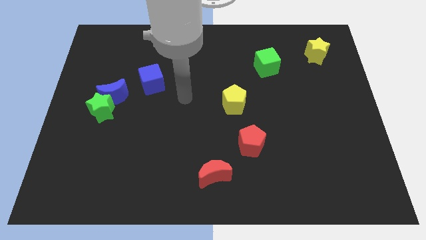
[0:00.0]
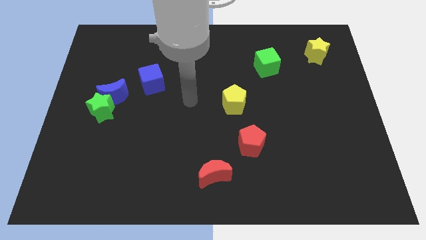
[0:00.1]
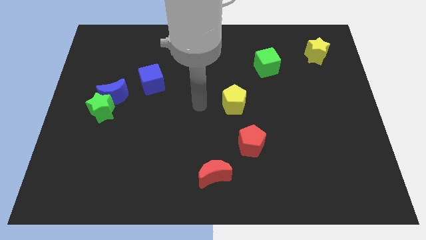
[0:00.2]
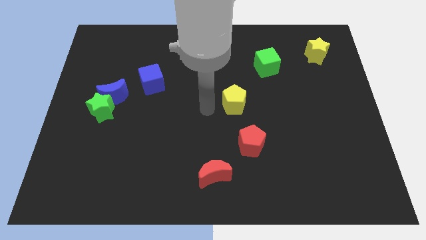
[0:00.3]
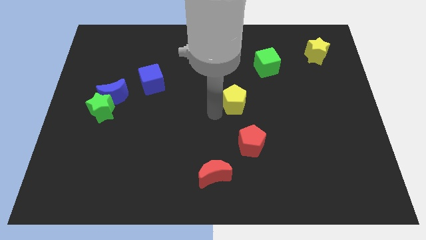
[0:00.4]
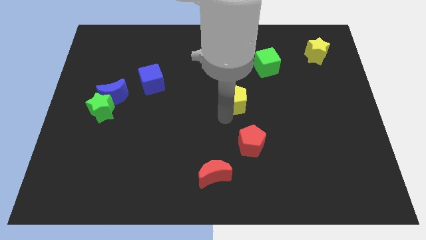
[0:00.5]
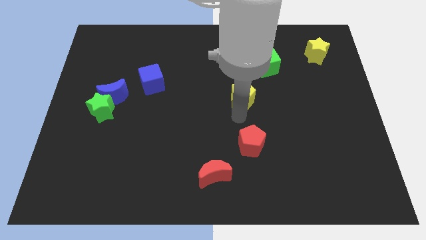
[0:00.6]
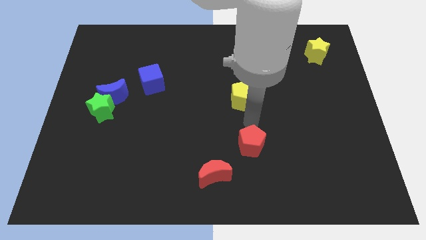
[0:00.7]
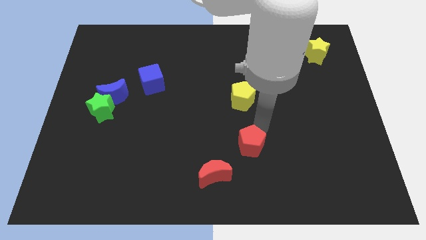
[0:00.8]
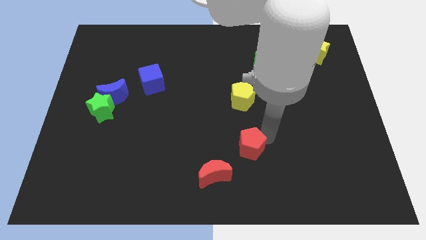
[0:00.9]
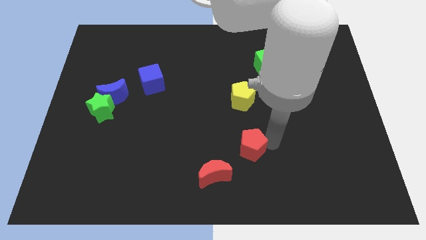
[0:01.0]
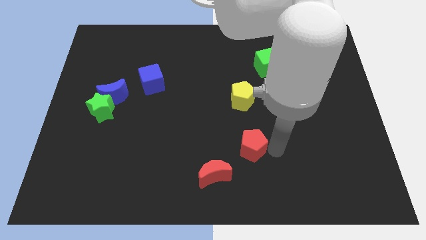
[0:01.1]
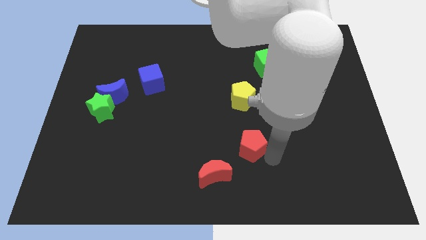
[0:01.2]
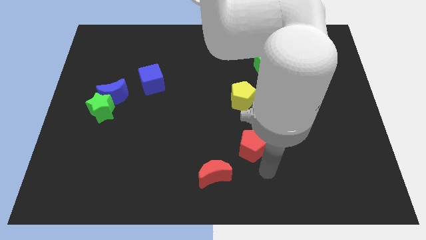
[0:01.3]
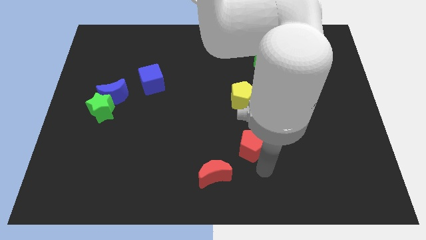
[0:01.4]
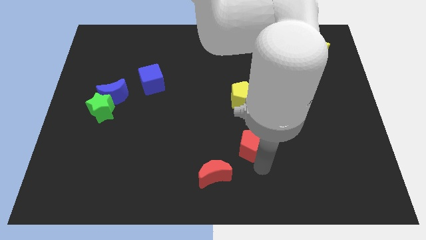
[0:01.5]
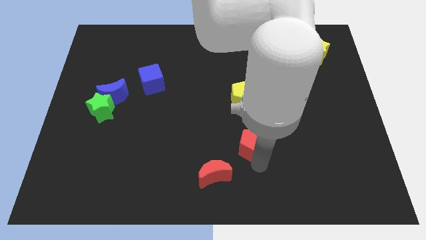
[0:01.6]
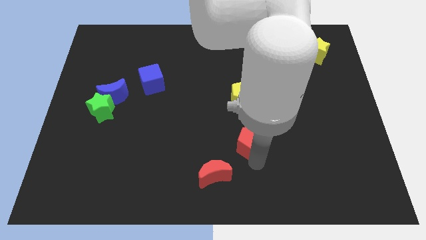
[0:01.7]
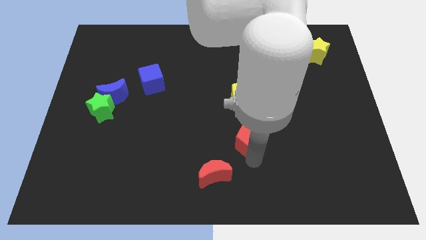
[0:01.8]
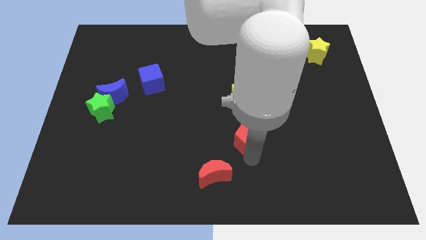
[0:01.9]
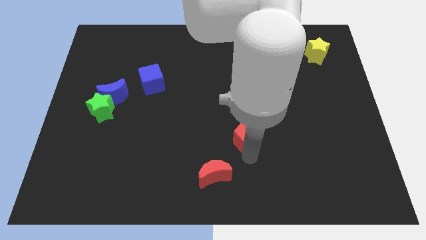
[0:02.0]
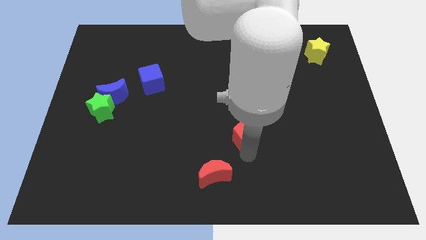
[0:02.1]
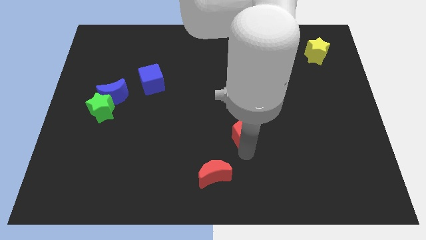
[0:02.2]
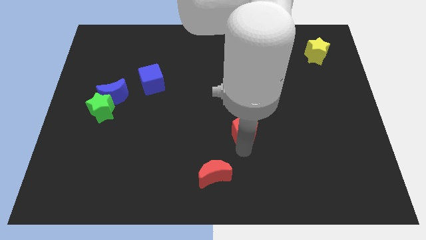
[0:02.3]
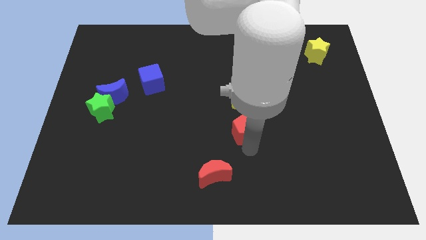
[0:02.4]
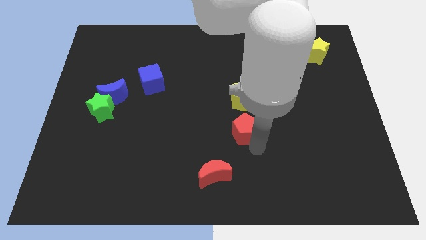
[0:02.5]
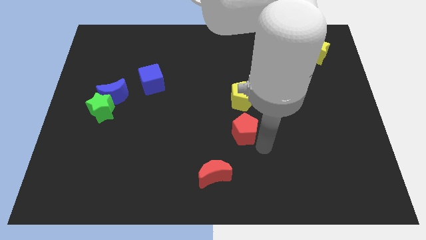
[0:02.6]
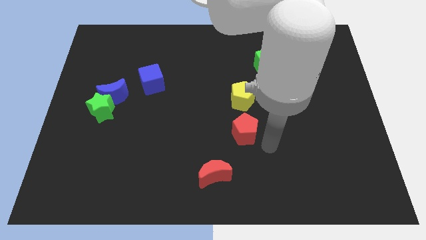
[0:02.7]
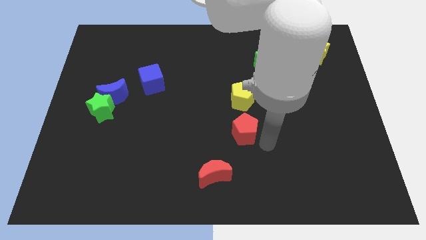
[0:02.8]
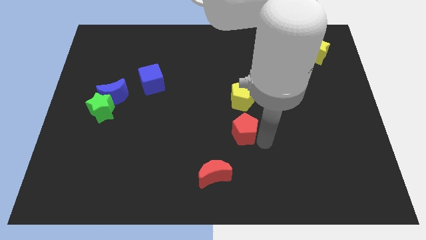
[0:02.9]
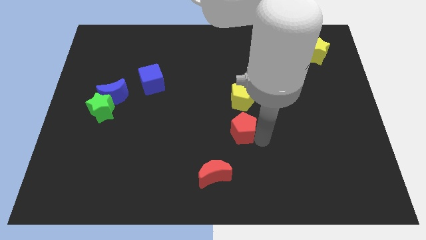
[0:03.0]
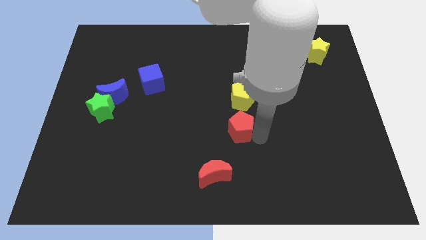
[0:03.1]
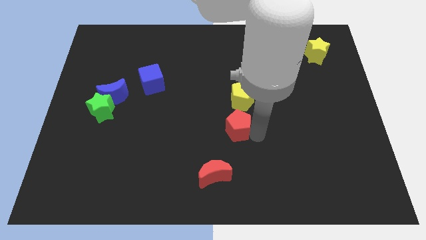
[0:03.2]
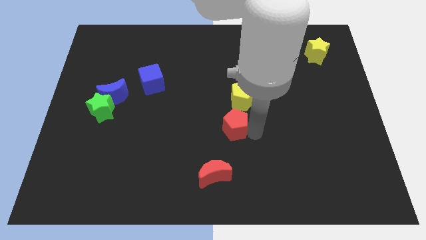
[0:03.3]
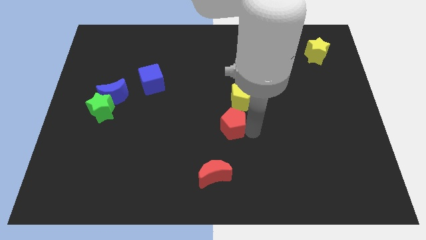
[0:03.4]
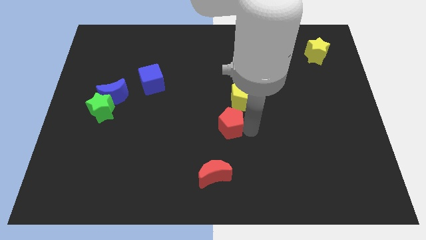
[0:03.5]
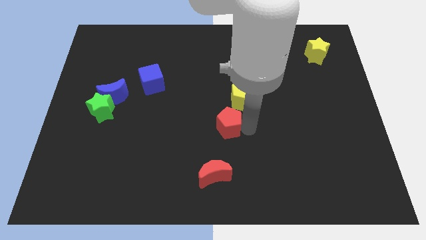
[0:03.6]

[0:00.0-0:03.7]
slightly slide the red pentagon upwards and to the left

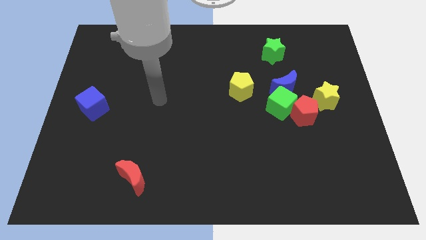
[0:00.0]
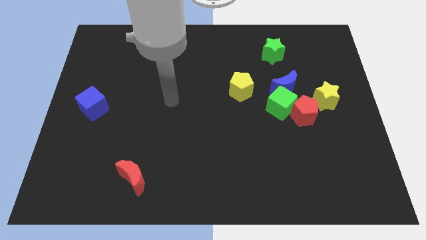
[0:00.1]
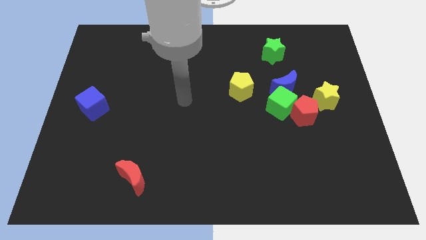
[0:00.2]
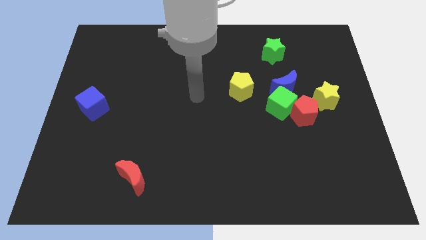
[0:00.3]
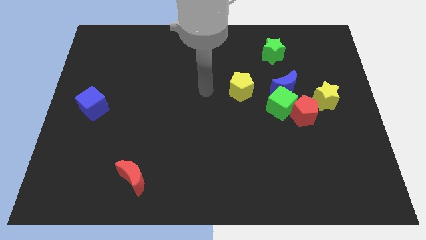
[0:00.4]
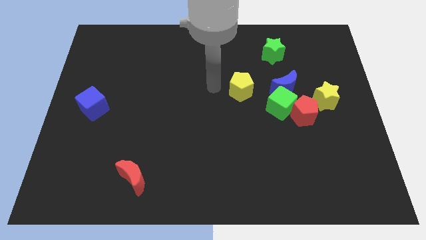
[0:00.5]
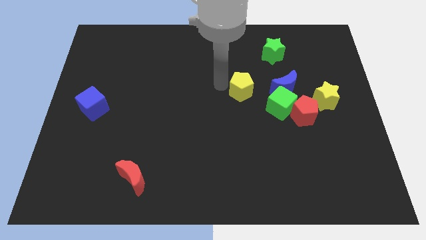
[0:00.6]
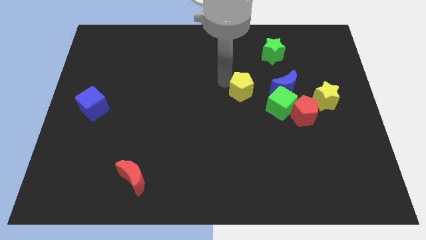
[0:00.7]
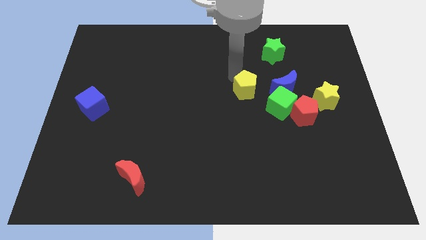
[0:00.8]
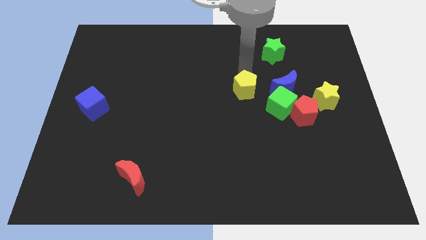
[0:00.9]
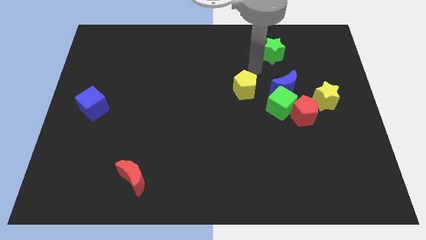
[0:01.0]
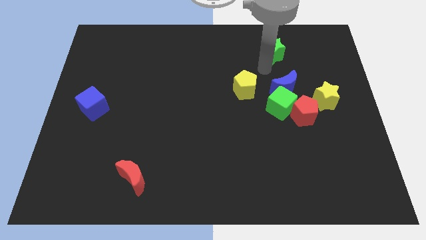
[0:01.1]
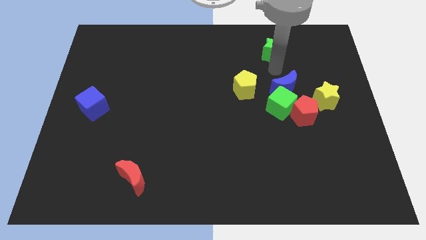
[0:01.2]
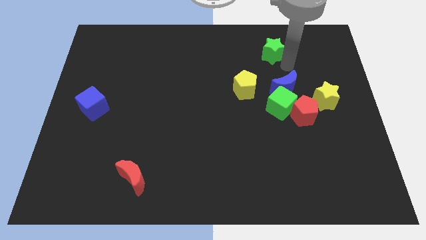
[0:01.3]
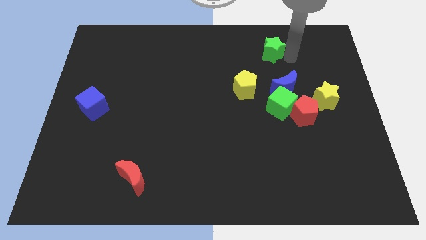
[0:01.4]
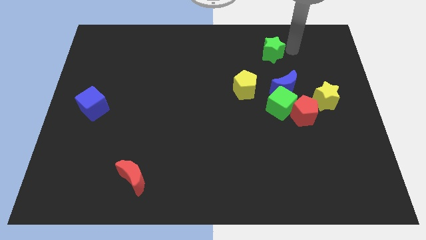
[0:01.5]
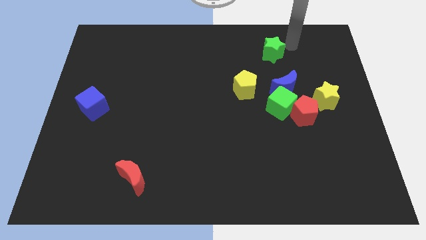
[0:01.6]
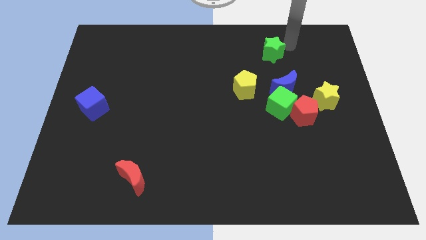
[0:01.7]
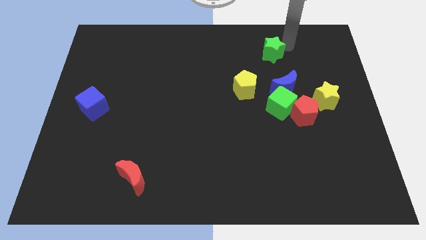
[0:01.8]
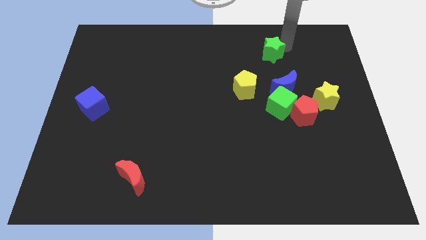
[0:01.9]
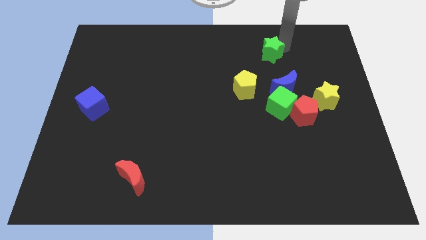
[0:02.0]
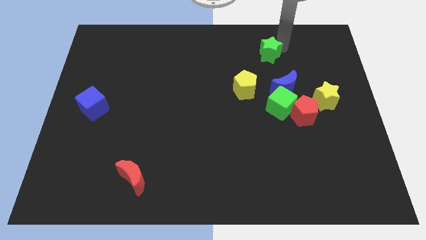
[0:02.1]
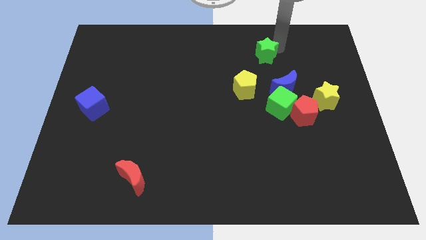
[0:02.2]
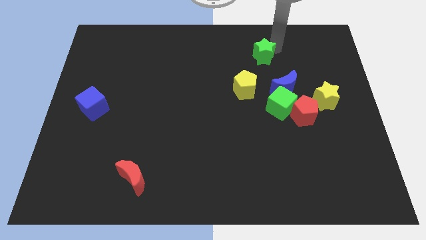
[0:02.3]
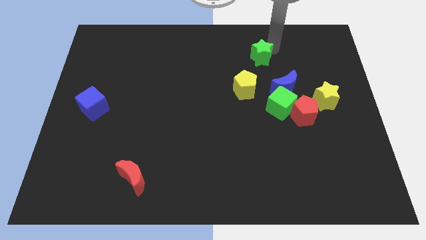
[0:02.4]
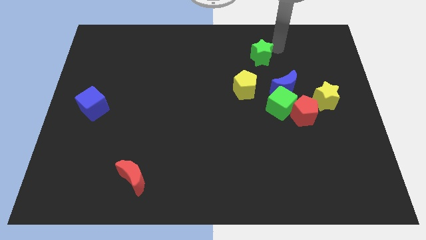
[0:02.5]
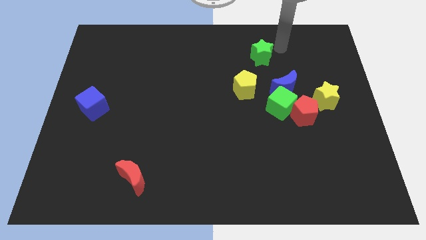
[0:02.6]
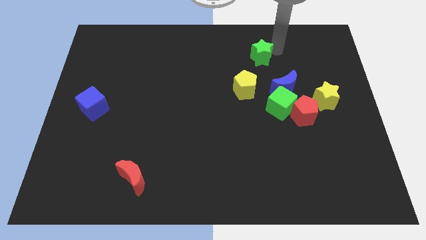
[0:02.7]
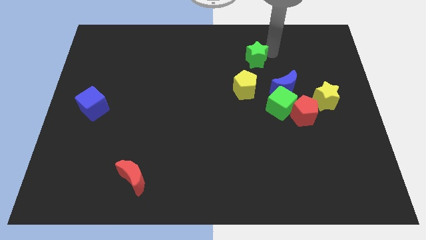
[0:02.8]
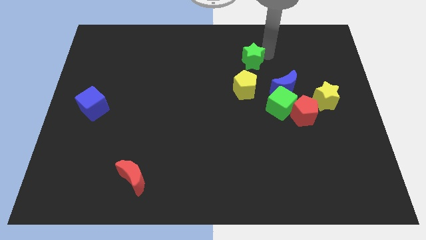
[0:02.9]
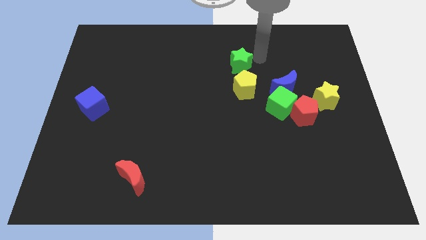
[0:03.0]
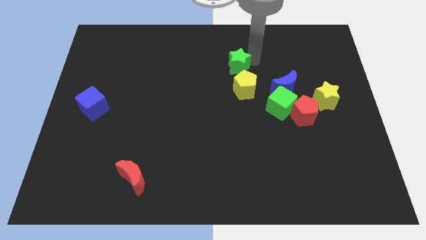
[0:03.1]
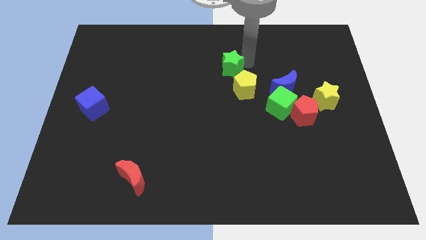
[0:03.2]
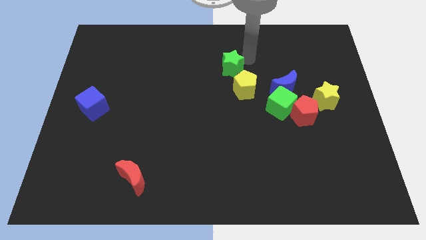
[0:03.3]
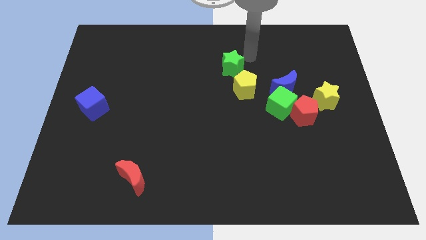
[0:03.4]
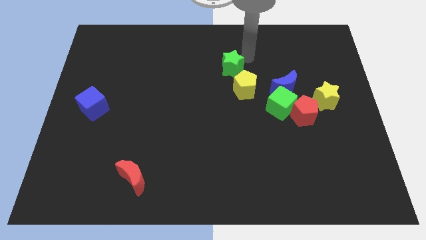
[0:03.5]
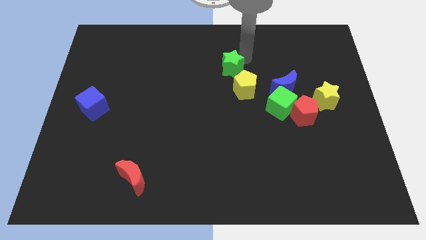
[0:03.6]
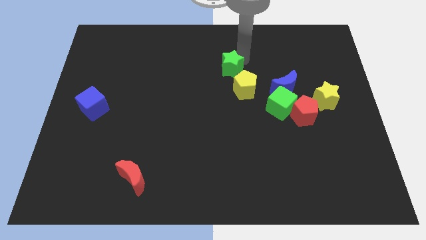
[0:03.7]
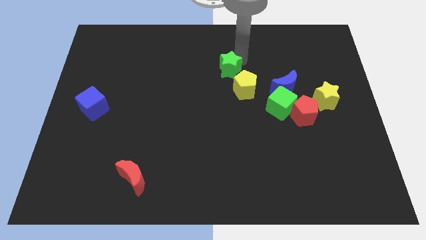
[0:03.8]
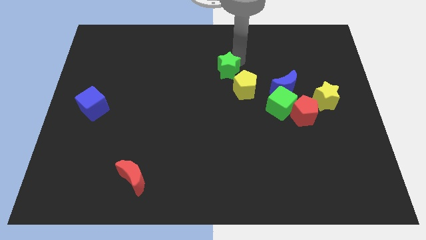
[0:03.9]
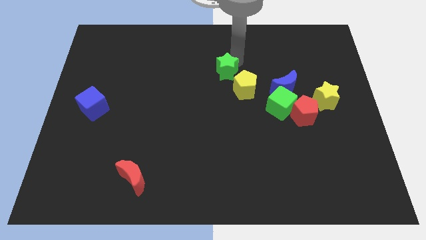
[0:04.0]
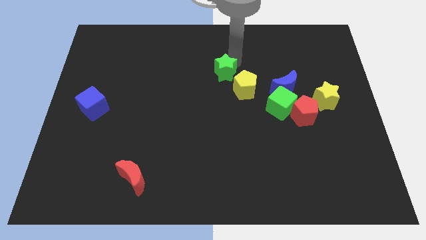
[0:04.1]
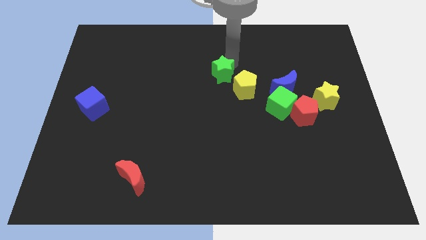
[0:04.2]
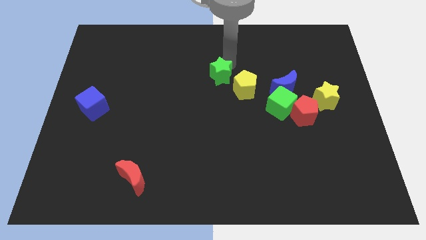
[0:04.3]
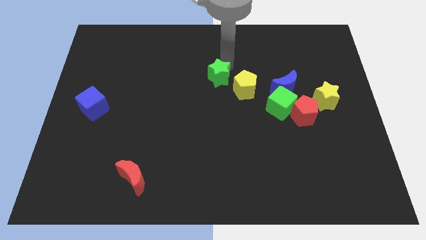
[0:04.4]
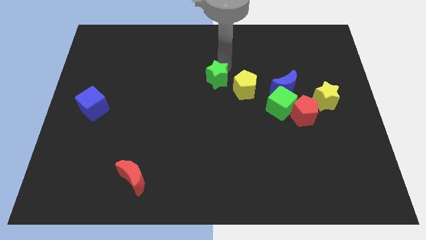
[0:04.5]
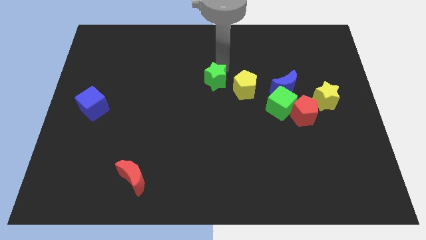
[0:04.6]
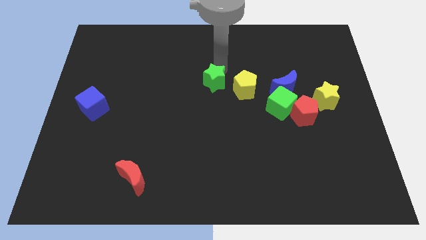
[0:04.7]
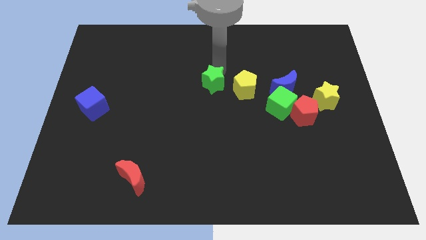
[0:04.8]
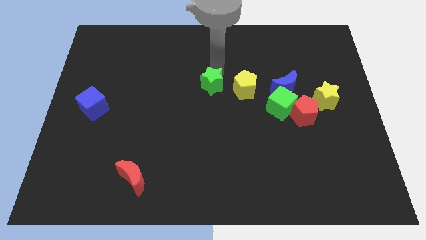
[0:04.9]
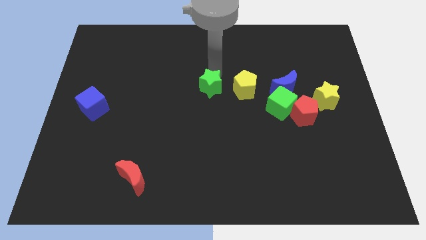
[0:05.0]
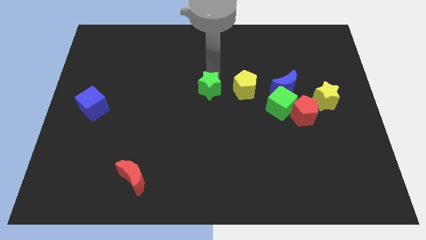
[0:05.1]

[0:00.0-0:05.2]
push the green star down and then to the left
